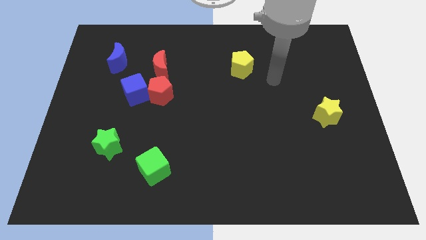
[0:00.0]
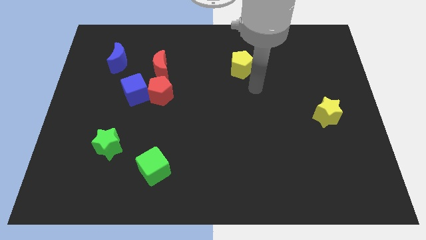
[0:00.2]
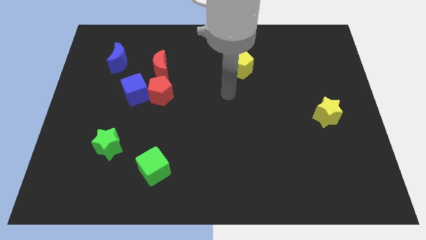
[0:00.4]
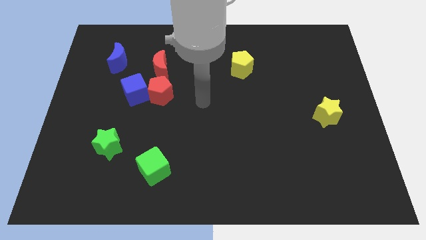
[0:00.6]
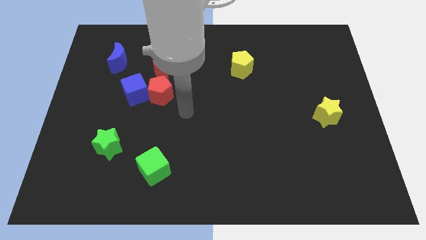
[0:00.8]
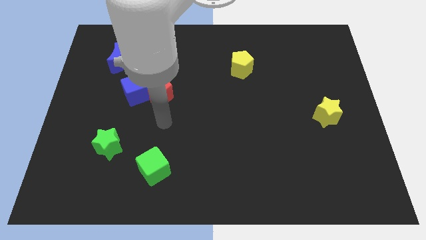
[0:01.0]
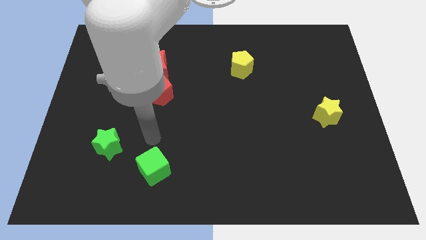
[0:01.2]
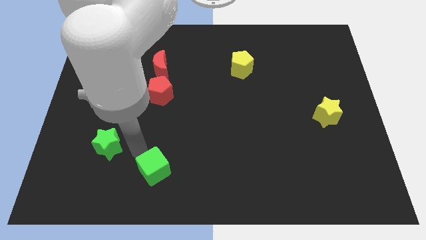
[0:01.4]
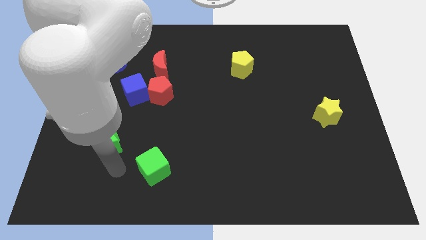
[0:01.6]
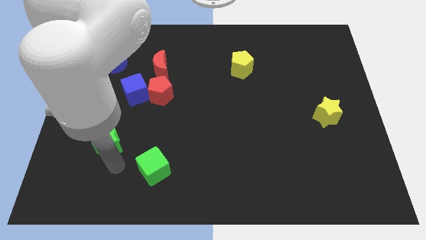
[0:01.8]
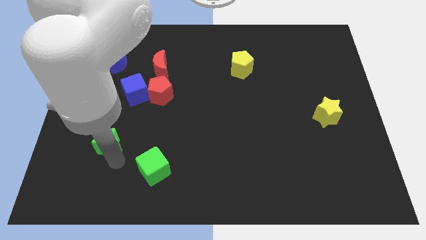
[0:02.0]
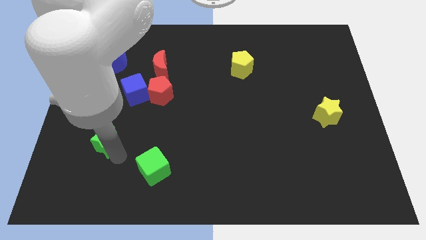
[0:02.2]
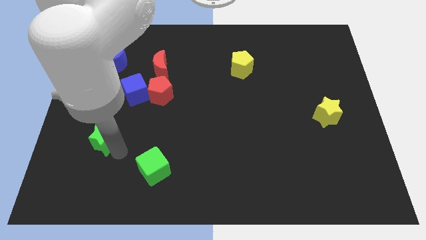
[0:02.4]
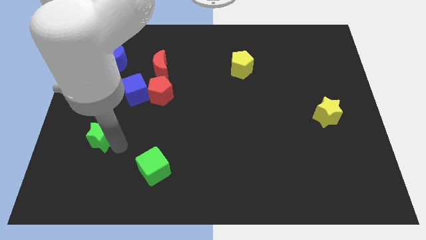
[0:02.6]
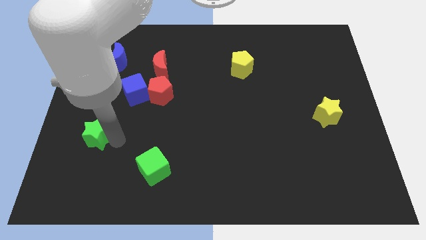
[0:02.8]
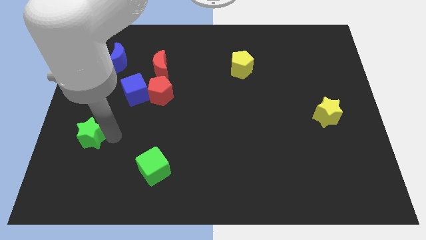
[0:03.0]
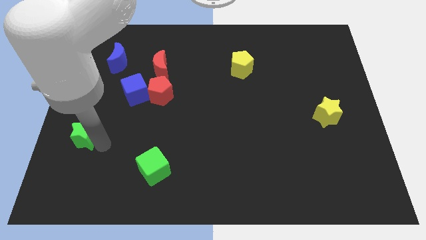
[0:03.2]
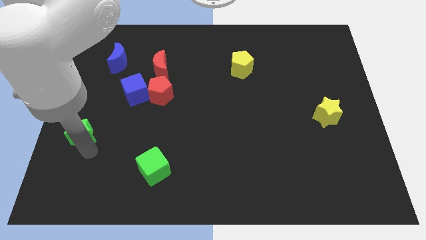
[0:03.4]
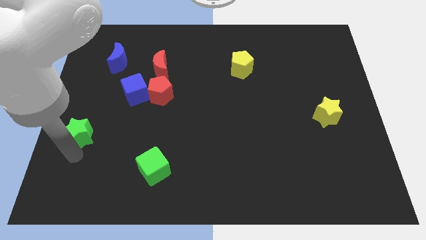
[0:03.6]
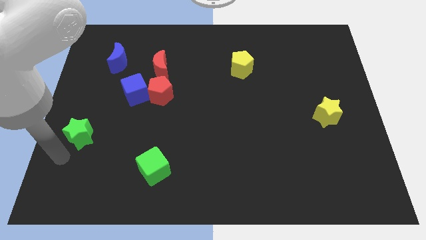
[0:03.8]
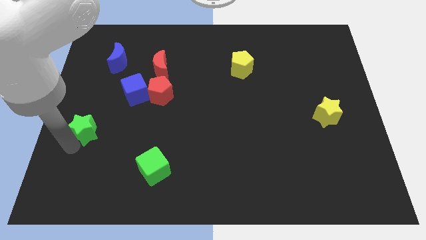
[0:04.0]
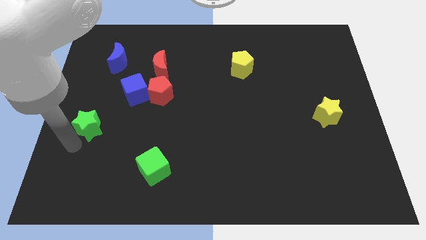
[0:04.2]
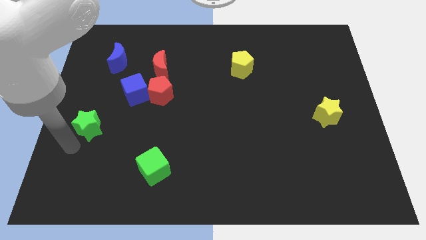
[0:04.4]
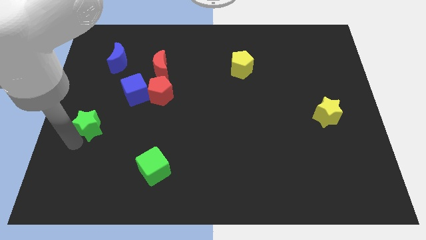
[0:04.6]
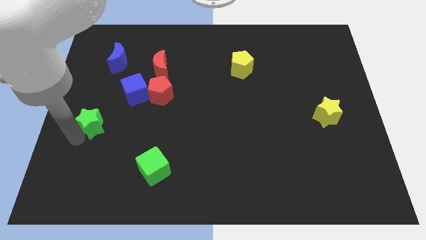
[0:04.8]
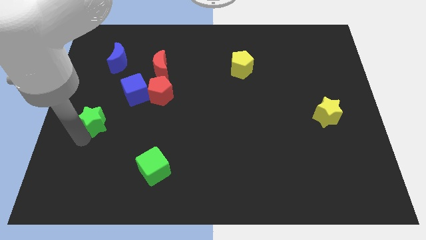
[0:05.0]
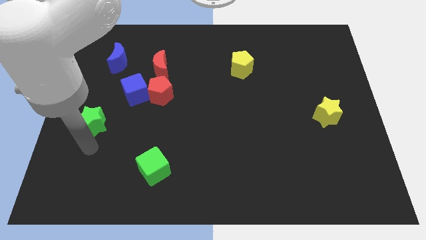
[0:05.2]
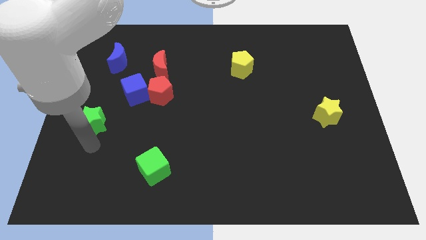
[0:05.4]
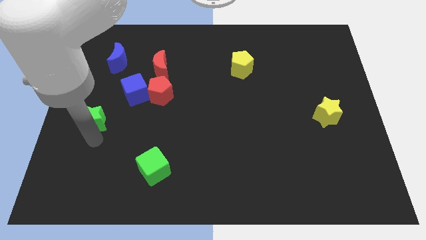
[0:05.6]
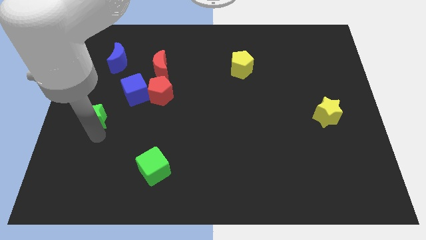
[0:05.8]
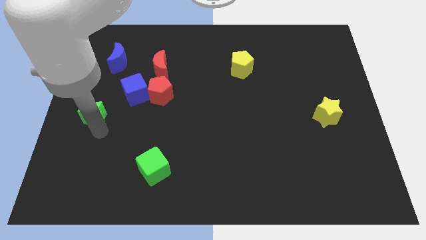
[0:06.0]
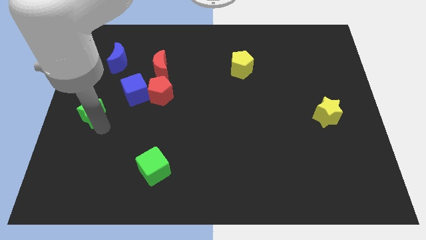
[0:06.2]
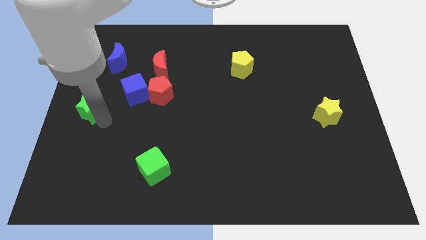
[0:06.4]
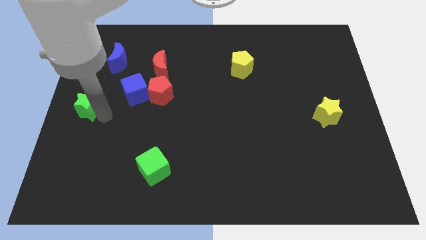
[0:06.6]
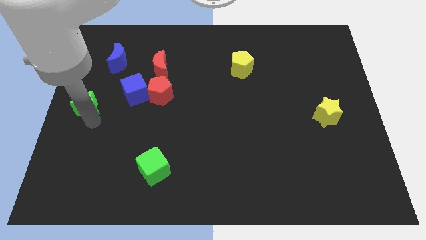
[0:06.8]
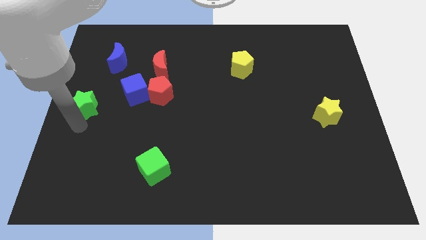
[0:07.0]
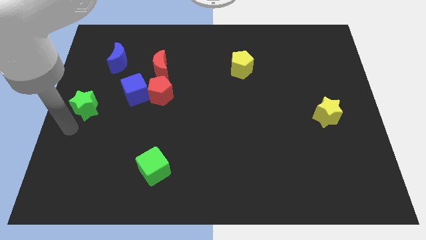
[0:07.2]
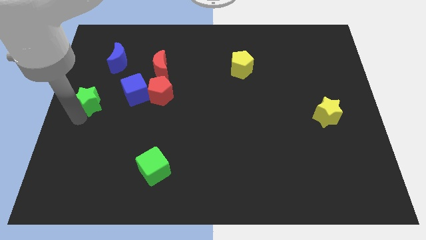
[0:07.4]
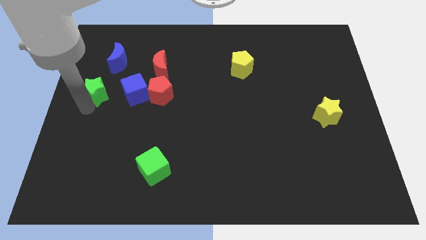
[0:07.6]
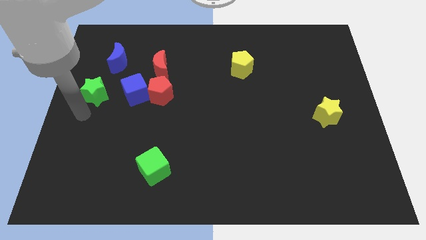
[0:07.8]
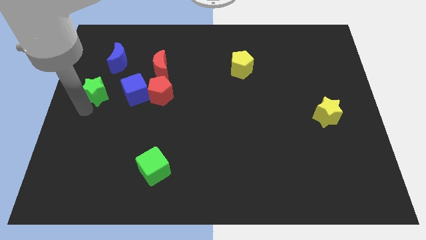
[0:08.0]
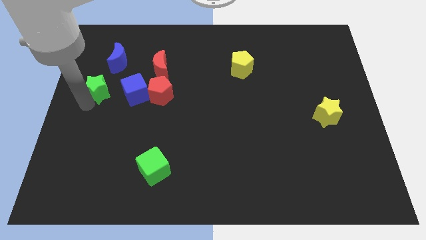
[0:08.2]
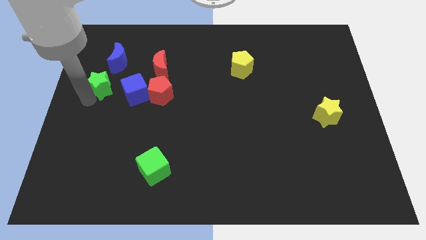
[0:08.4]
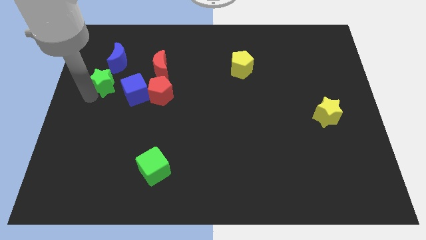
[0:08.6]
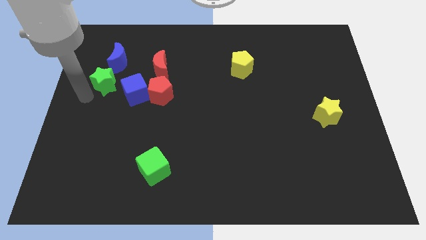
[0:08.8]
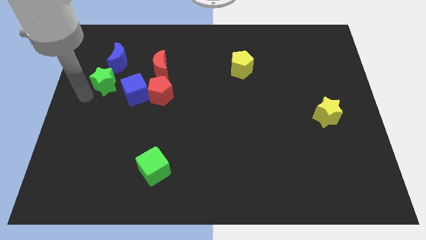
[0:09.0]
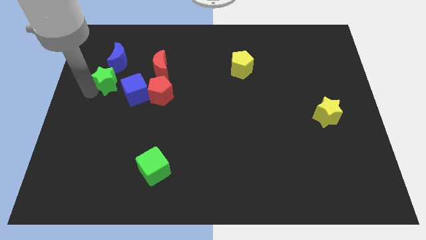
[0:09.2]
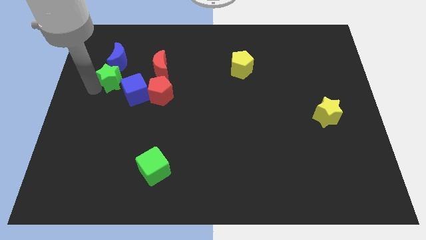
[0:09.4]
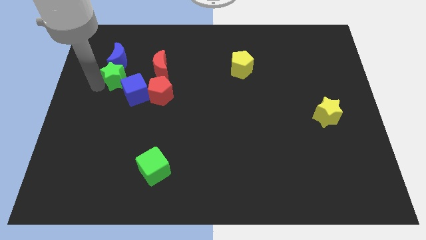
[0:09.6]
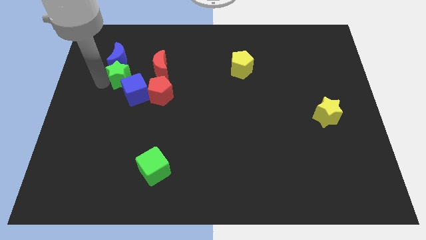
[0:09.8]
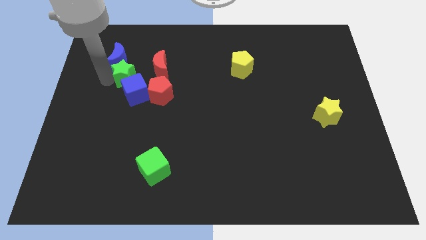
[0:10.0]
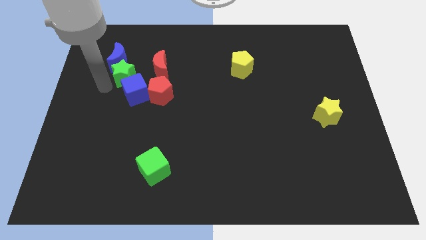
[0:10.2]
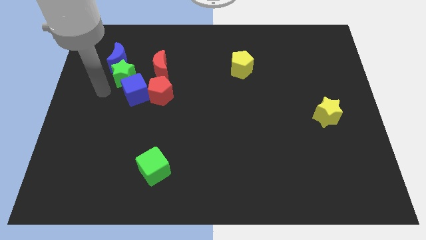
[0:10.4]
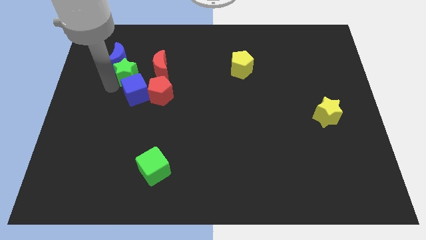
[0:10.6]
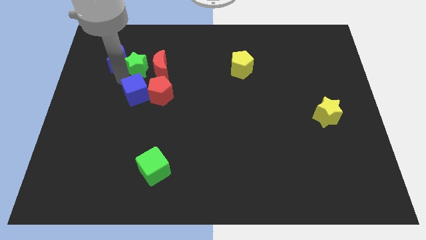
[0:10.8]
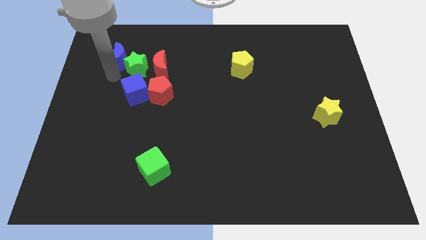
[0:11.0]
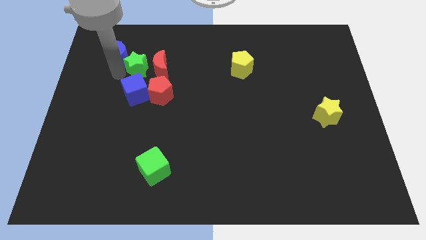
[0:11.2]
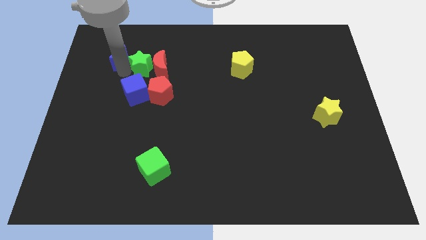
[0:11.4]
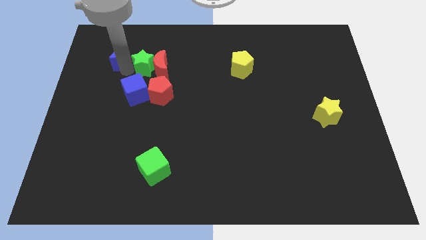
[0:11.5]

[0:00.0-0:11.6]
move the green star to the top side of the red pentagon

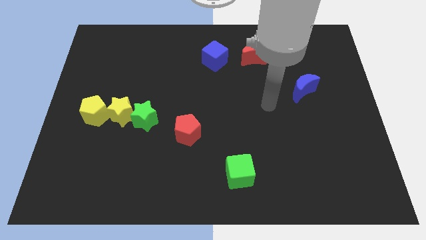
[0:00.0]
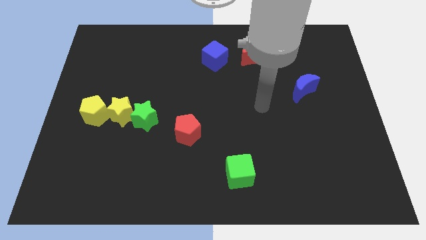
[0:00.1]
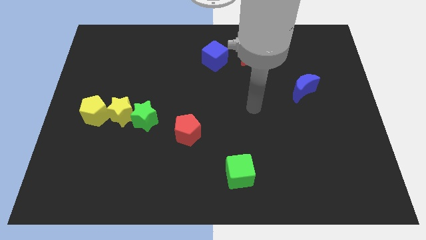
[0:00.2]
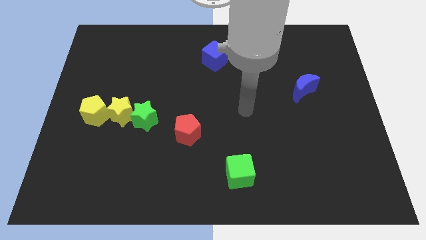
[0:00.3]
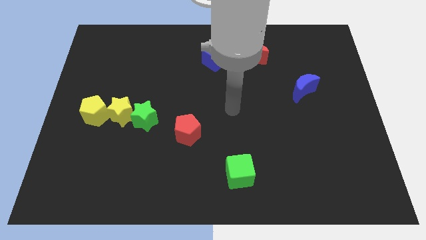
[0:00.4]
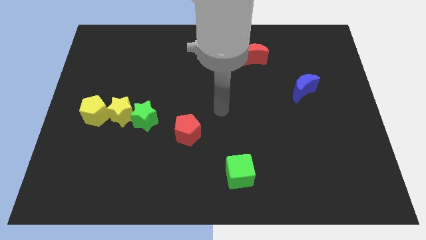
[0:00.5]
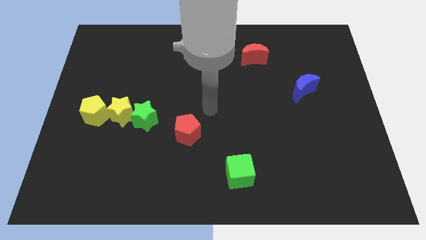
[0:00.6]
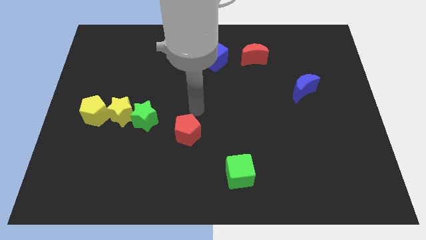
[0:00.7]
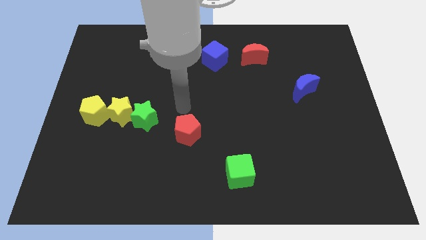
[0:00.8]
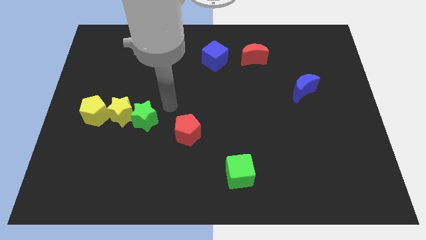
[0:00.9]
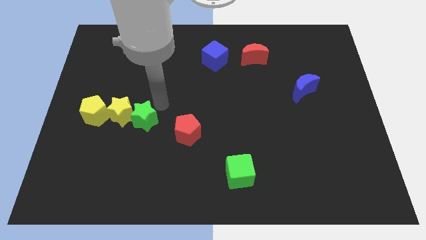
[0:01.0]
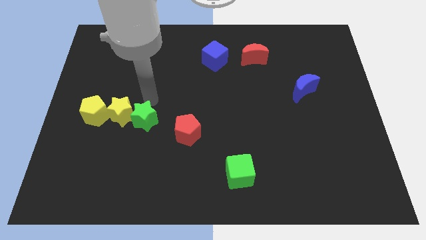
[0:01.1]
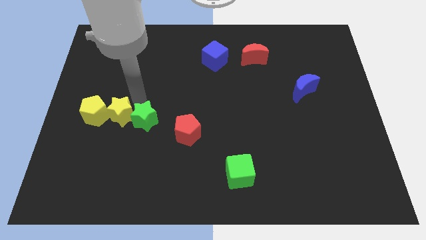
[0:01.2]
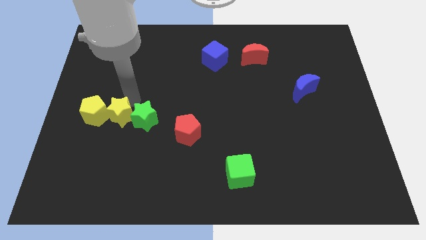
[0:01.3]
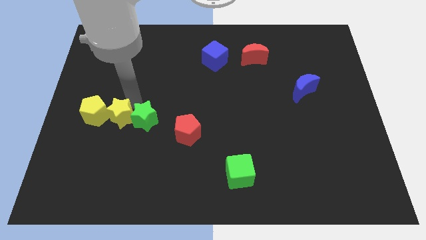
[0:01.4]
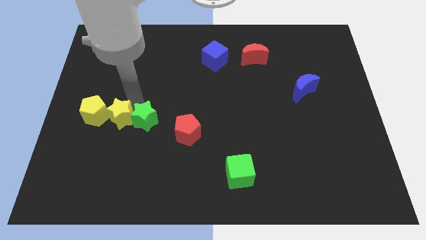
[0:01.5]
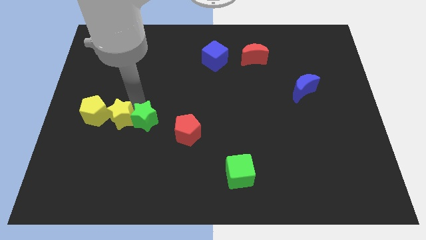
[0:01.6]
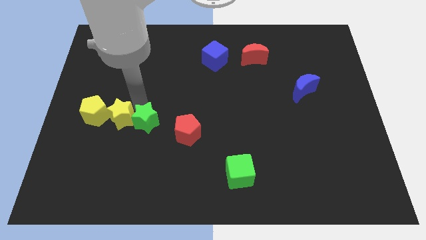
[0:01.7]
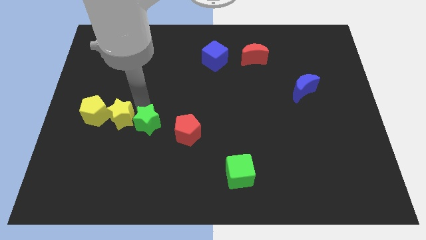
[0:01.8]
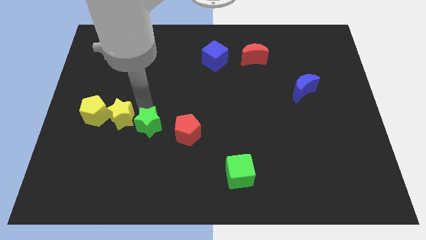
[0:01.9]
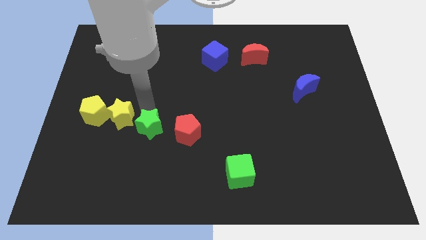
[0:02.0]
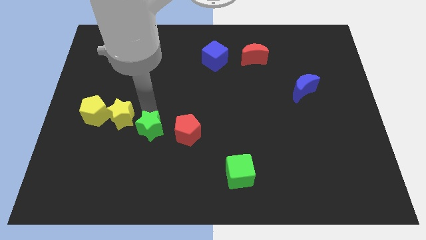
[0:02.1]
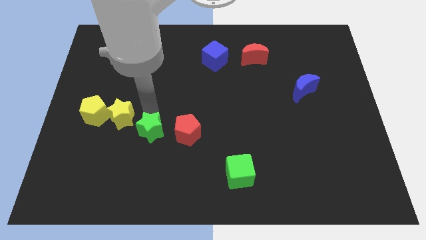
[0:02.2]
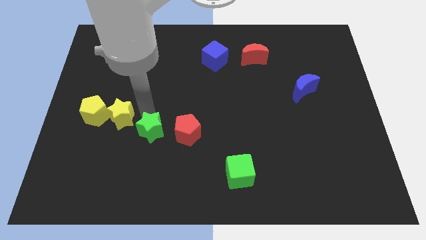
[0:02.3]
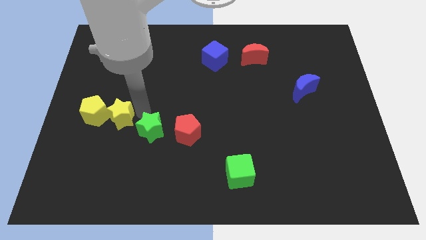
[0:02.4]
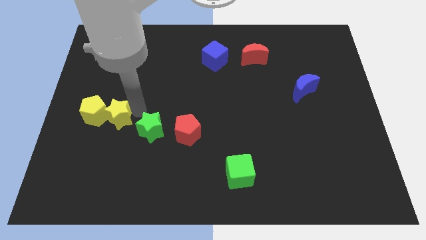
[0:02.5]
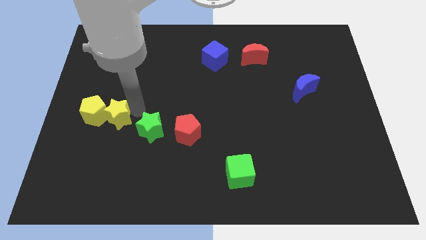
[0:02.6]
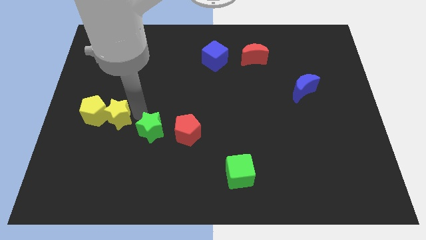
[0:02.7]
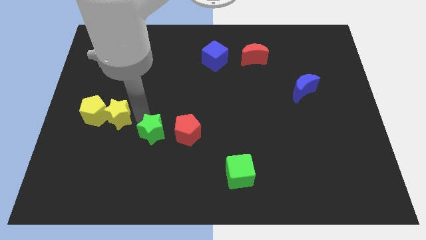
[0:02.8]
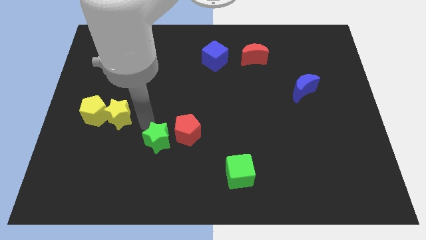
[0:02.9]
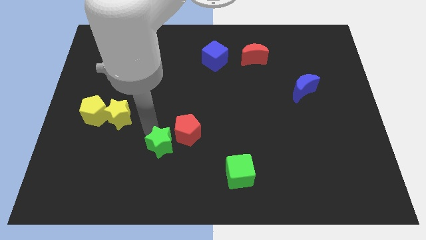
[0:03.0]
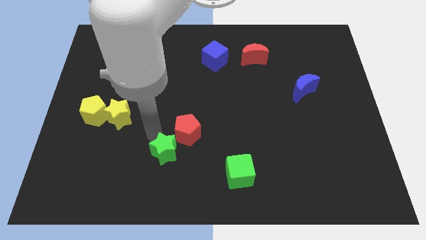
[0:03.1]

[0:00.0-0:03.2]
move the green star below the red pentagon
